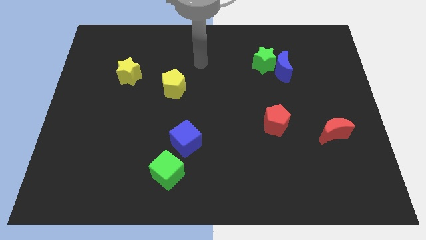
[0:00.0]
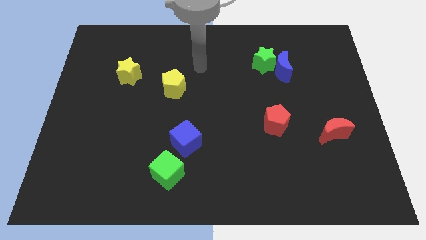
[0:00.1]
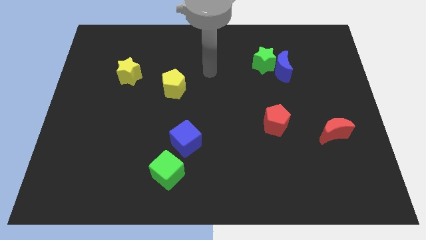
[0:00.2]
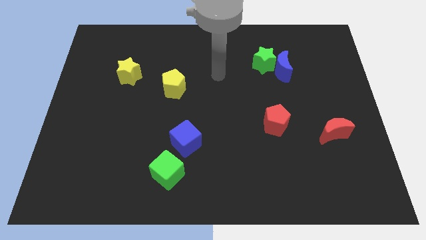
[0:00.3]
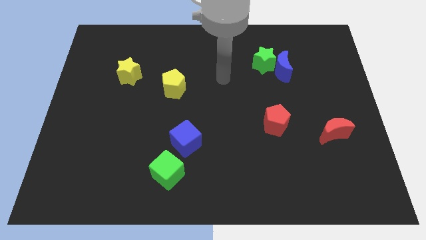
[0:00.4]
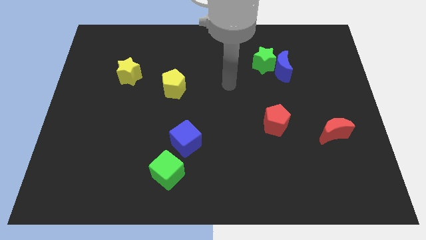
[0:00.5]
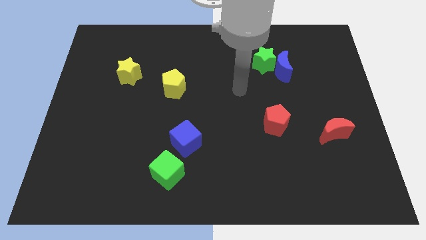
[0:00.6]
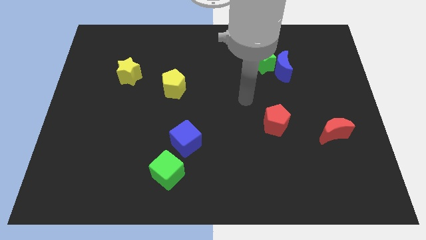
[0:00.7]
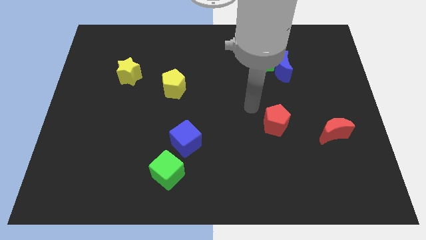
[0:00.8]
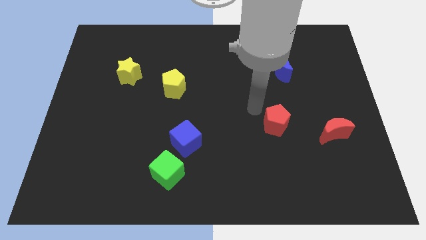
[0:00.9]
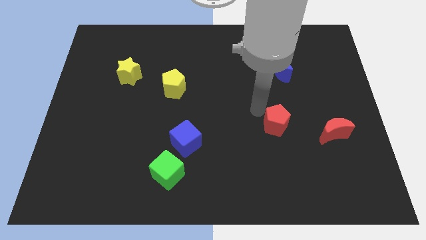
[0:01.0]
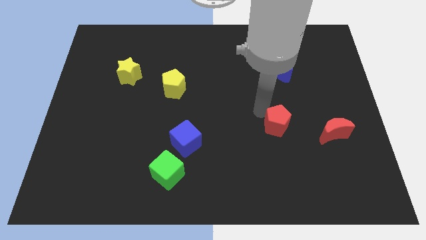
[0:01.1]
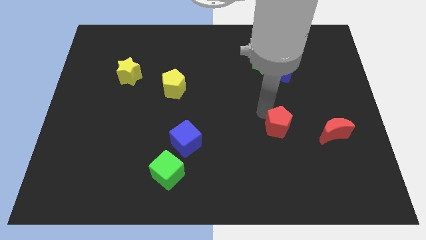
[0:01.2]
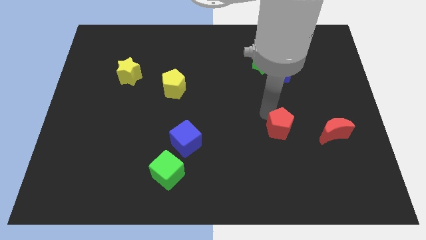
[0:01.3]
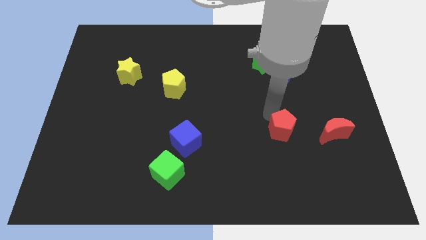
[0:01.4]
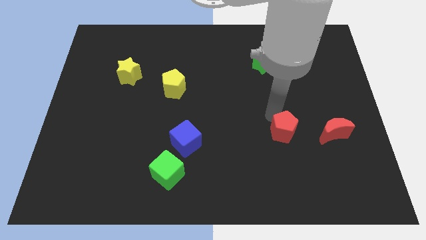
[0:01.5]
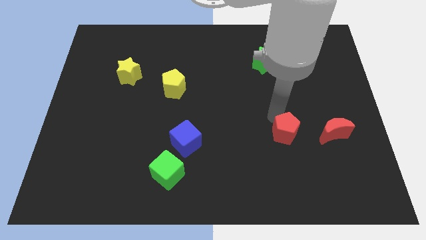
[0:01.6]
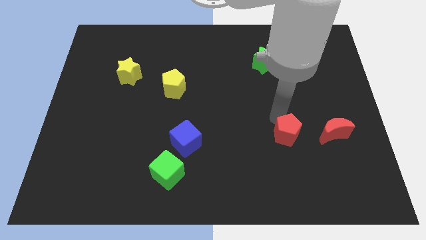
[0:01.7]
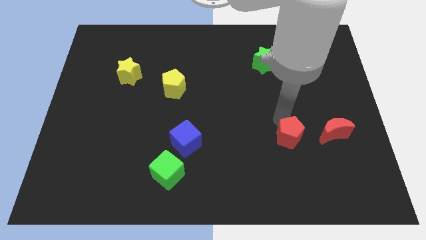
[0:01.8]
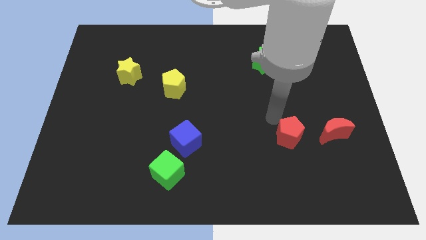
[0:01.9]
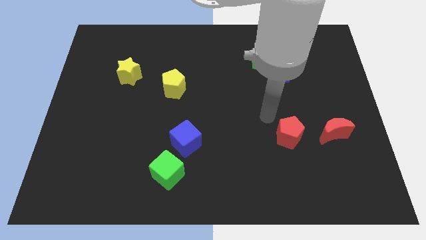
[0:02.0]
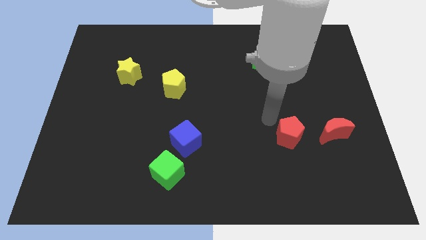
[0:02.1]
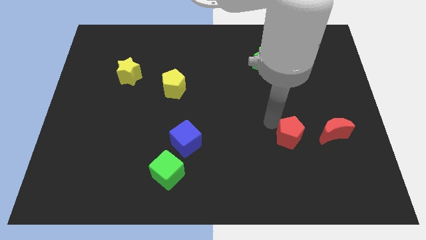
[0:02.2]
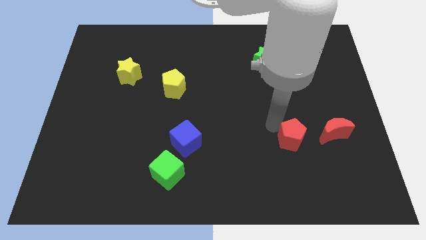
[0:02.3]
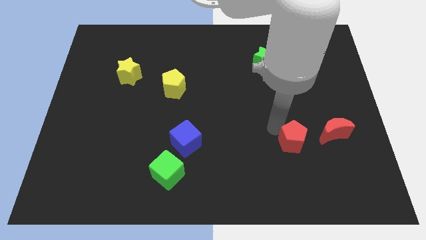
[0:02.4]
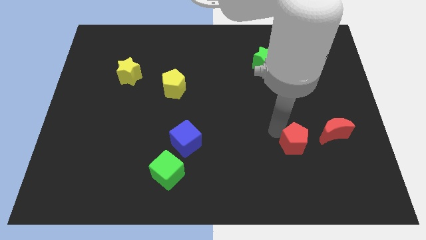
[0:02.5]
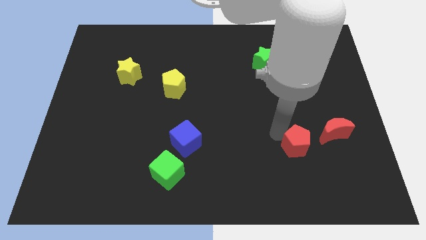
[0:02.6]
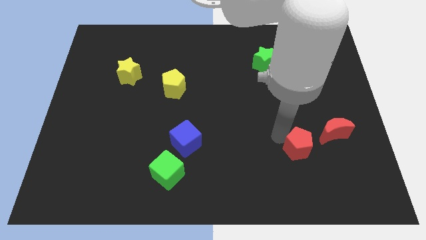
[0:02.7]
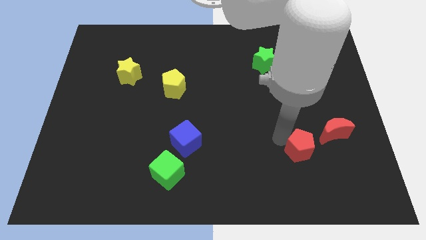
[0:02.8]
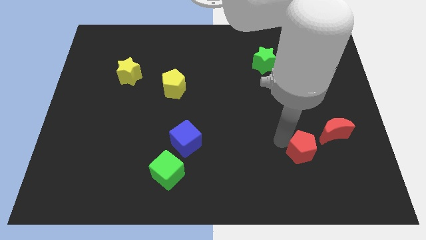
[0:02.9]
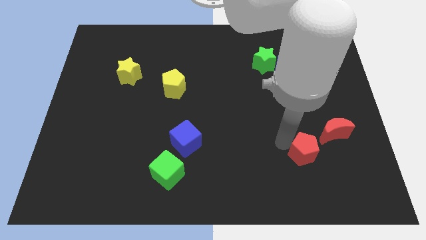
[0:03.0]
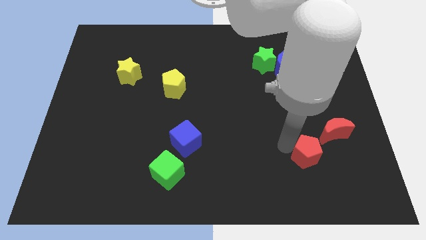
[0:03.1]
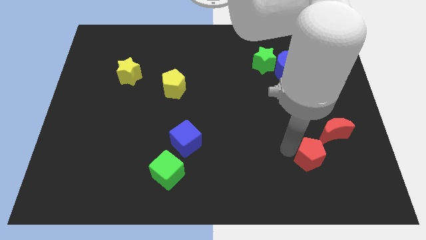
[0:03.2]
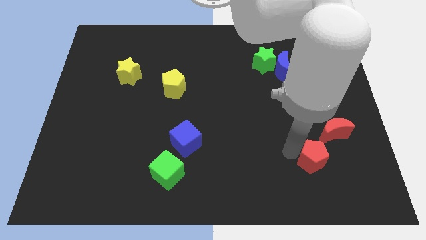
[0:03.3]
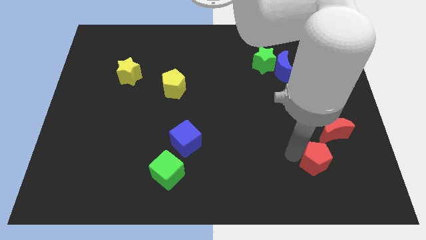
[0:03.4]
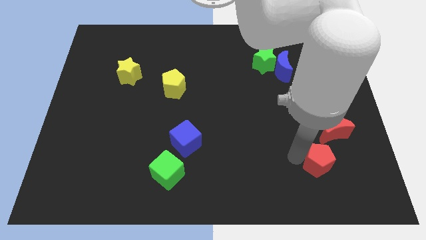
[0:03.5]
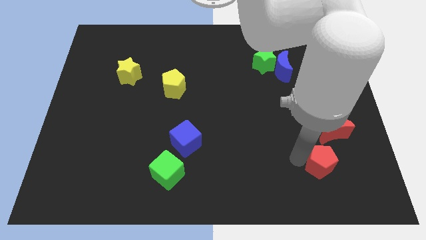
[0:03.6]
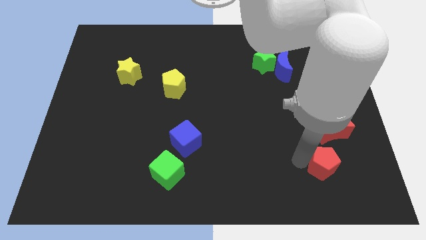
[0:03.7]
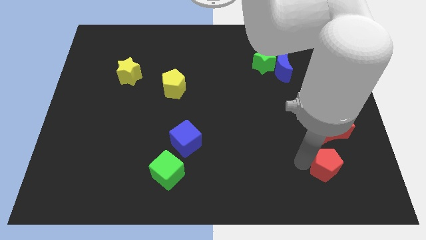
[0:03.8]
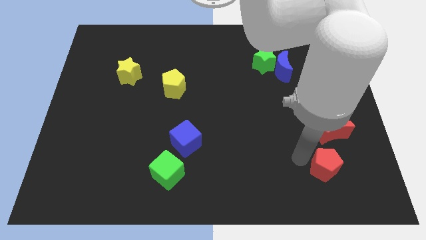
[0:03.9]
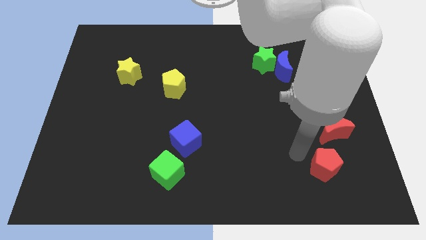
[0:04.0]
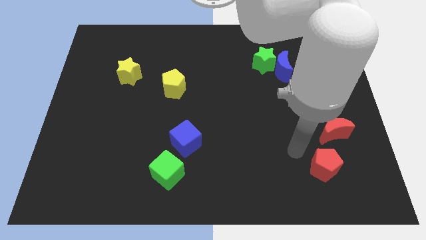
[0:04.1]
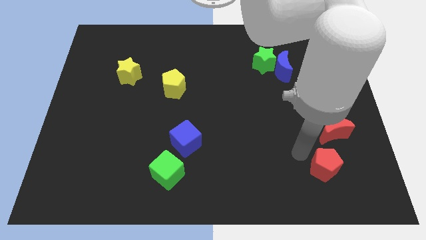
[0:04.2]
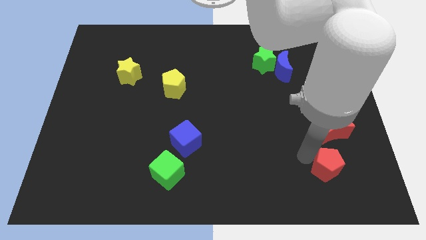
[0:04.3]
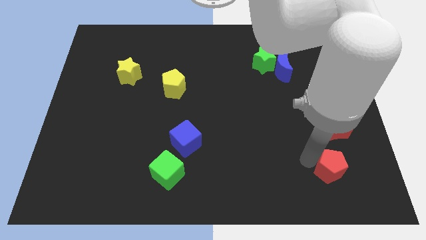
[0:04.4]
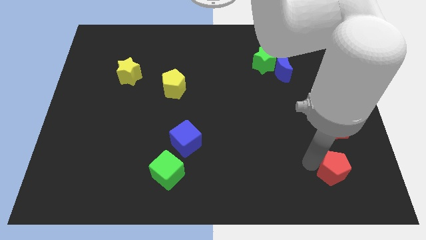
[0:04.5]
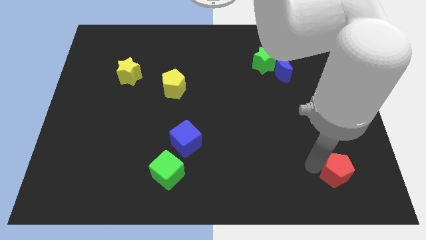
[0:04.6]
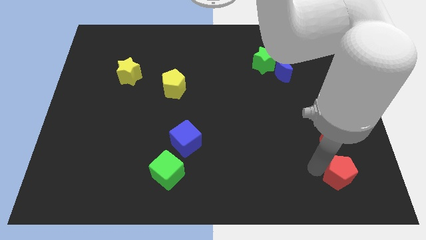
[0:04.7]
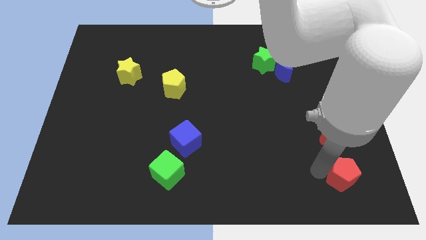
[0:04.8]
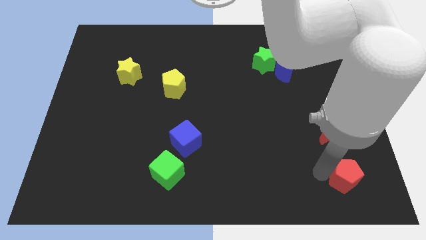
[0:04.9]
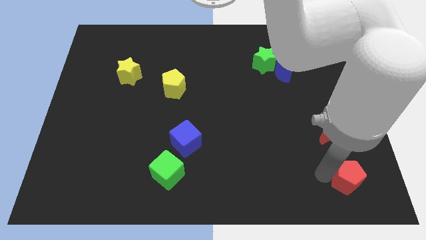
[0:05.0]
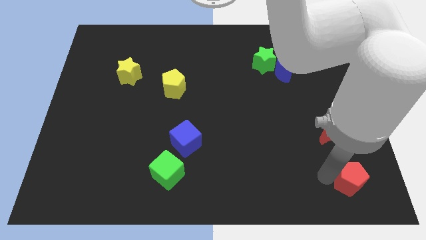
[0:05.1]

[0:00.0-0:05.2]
move the red pentagon to the bottom right corner

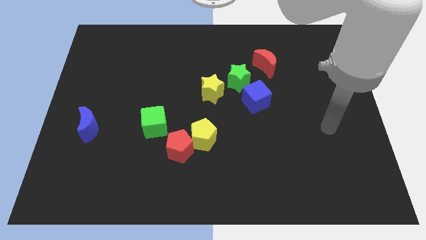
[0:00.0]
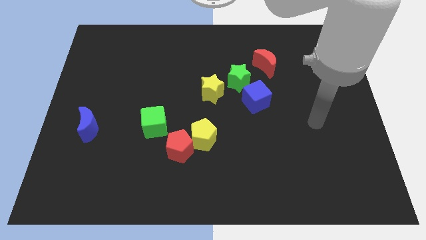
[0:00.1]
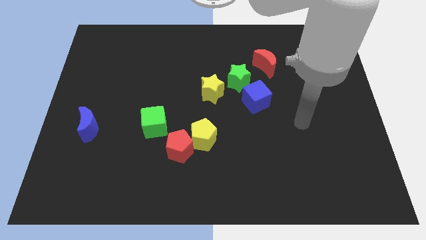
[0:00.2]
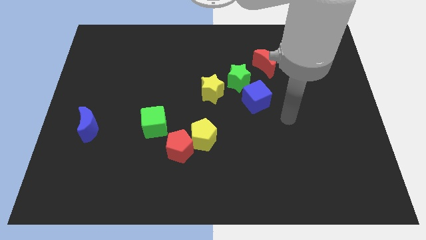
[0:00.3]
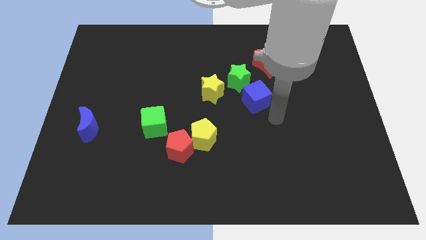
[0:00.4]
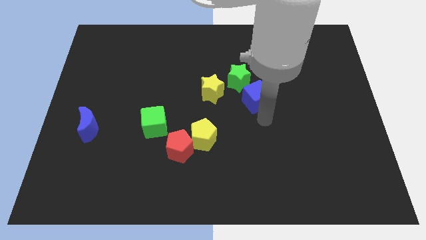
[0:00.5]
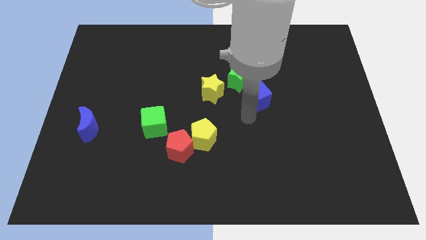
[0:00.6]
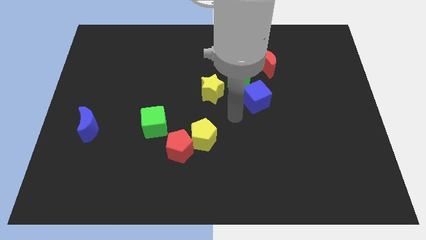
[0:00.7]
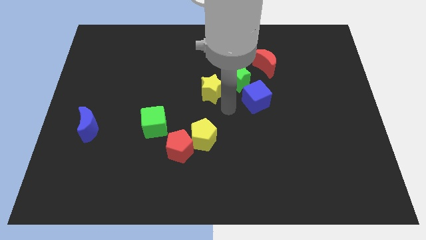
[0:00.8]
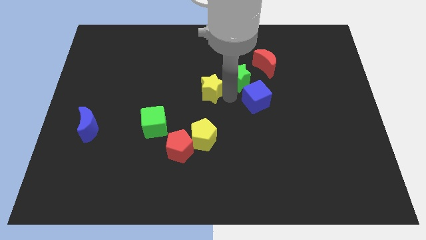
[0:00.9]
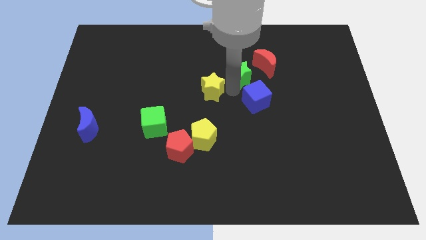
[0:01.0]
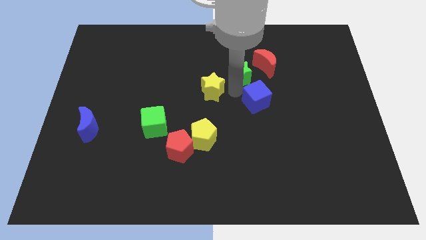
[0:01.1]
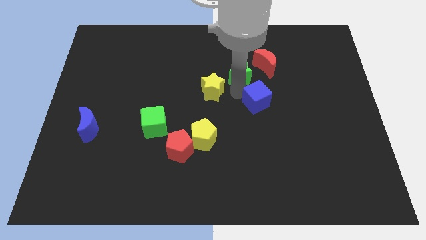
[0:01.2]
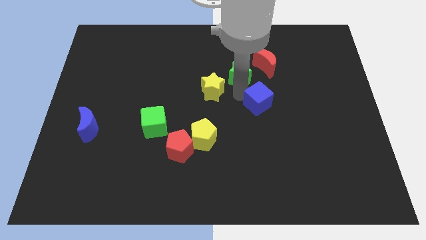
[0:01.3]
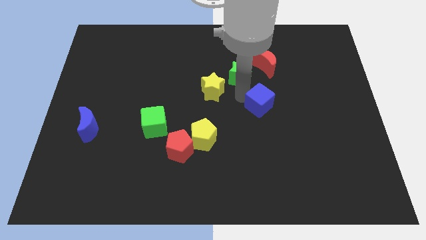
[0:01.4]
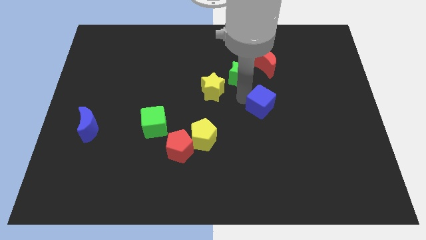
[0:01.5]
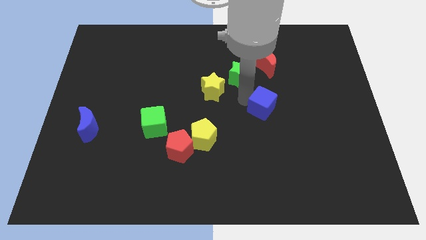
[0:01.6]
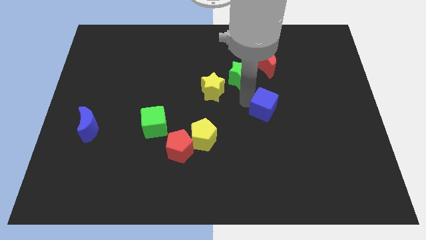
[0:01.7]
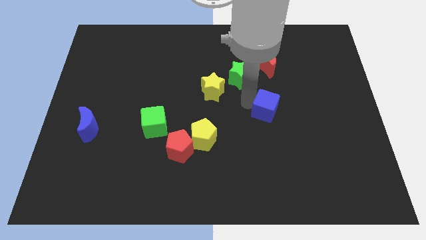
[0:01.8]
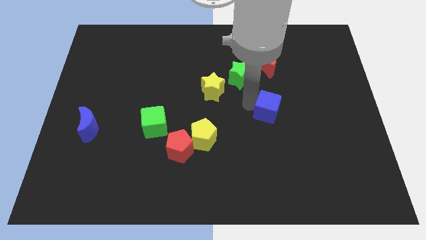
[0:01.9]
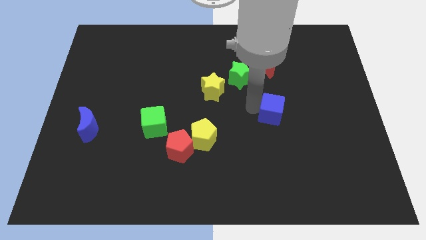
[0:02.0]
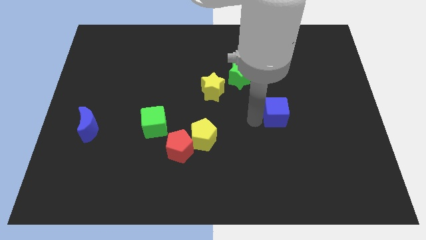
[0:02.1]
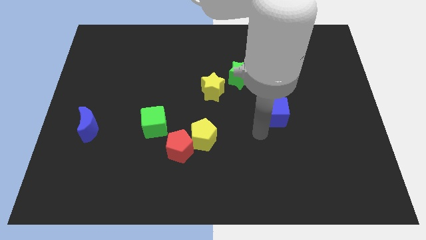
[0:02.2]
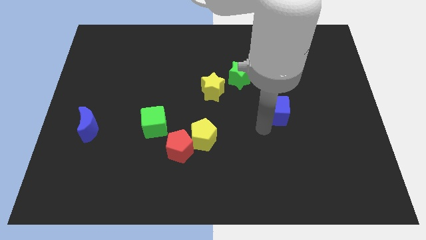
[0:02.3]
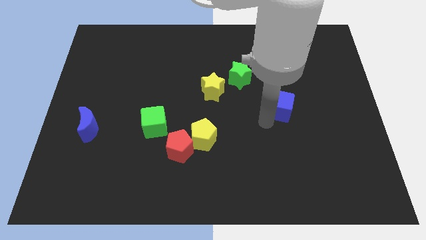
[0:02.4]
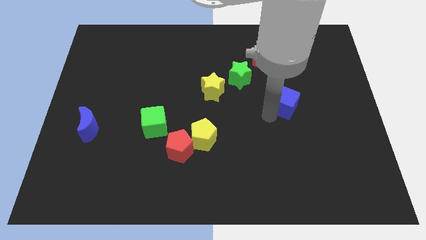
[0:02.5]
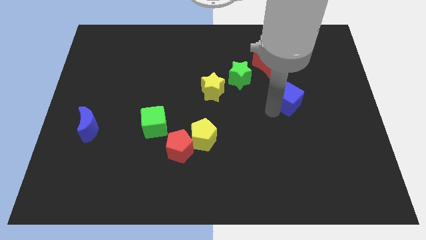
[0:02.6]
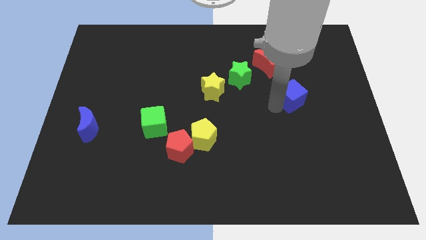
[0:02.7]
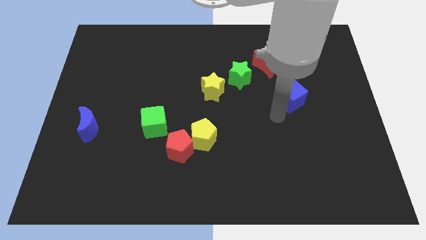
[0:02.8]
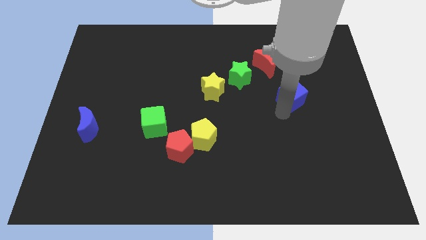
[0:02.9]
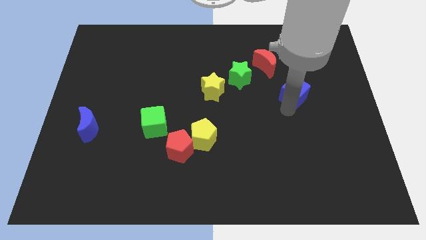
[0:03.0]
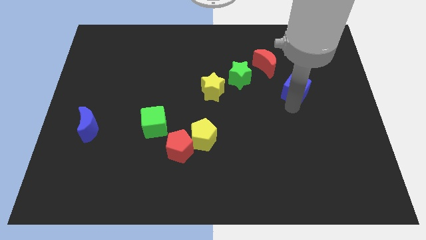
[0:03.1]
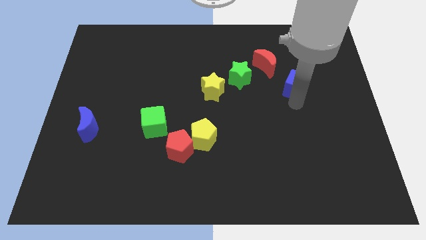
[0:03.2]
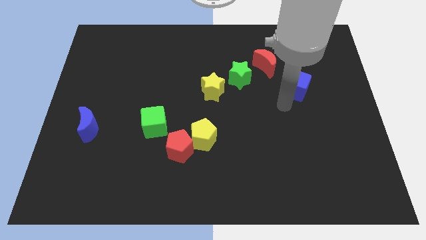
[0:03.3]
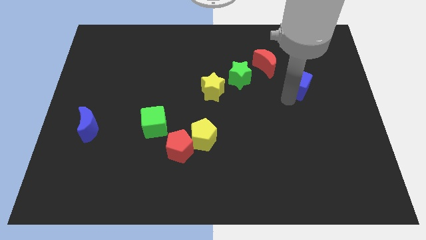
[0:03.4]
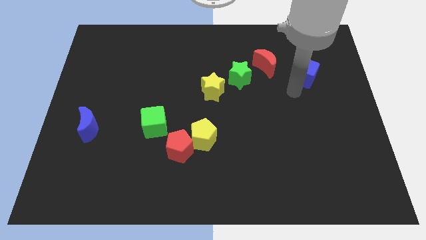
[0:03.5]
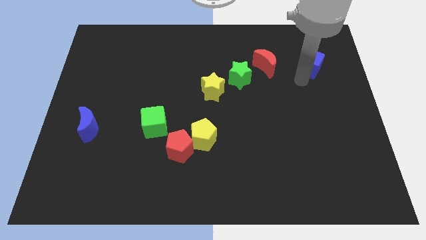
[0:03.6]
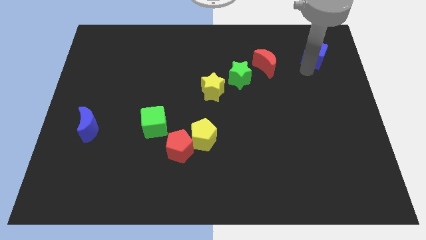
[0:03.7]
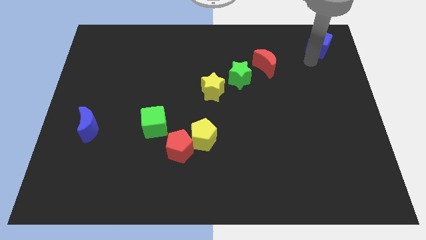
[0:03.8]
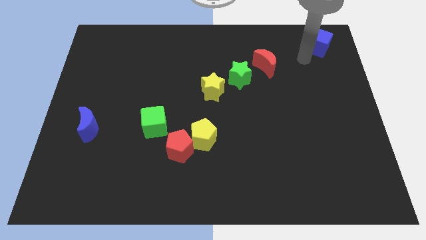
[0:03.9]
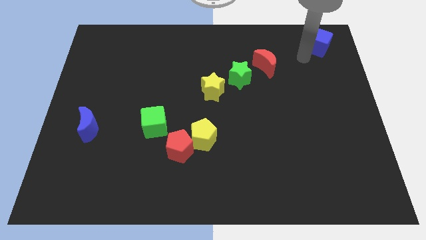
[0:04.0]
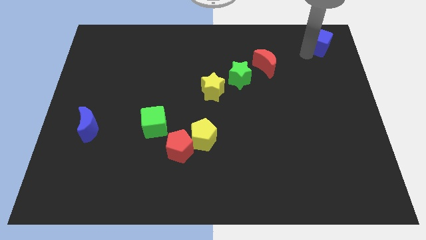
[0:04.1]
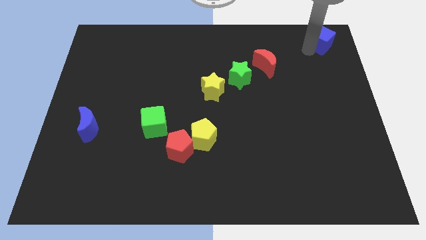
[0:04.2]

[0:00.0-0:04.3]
push the blue cube to the top right of the board
